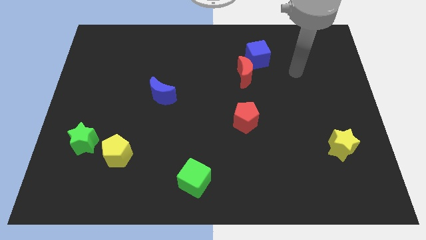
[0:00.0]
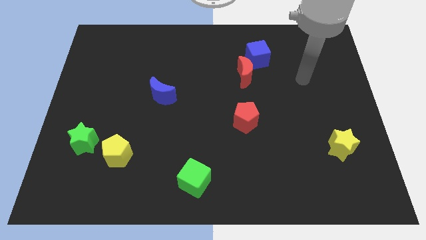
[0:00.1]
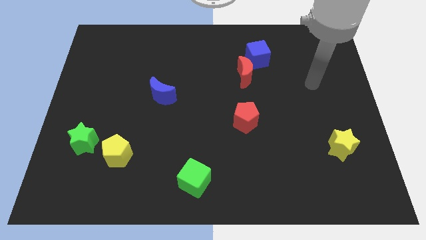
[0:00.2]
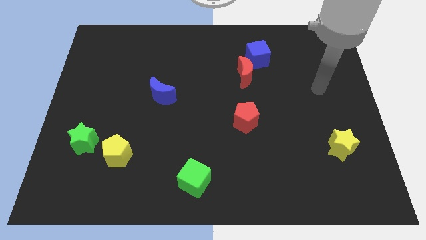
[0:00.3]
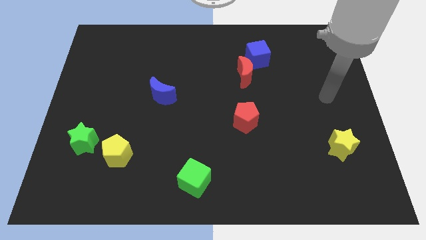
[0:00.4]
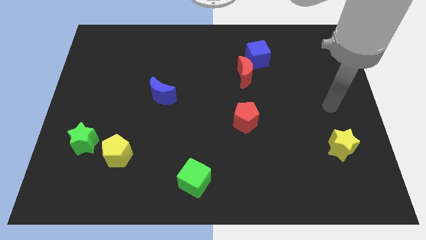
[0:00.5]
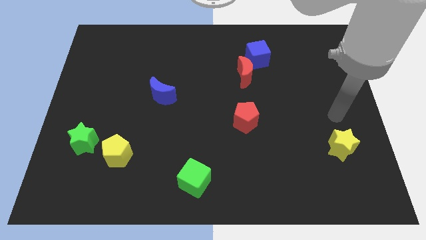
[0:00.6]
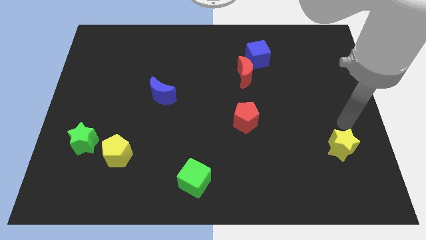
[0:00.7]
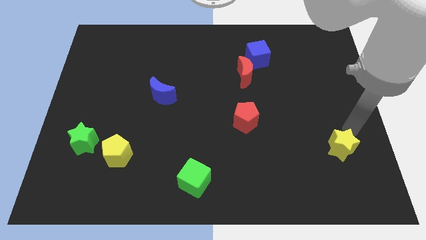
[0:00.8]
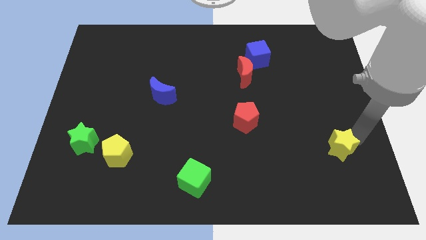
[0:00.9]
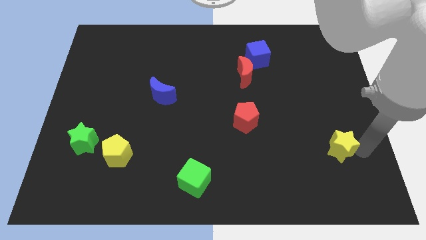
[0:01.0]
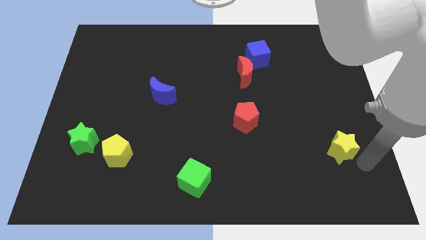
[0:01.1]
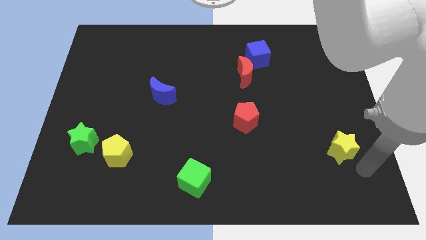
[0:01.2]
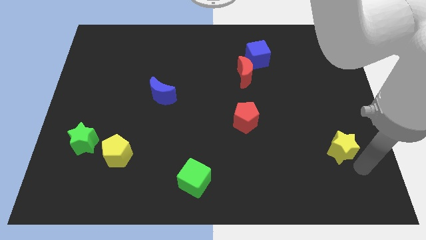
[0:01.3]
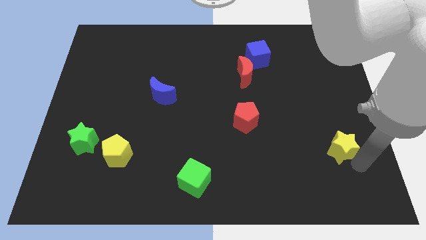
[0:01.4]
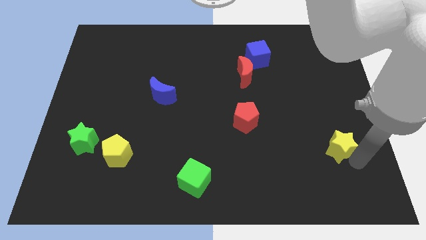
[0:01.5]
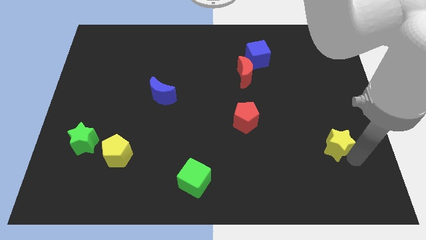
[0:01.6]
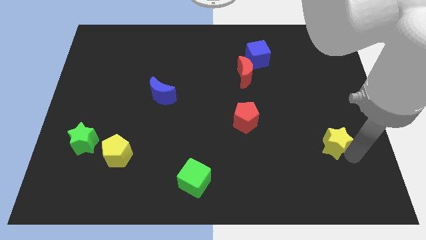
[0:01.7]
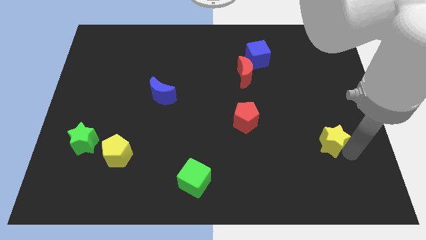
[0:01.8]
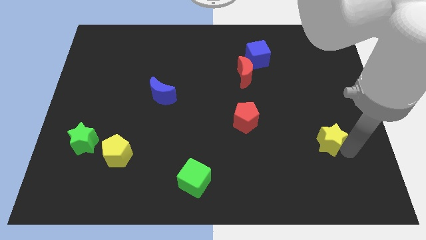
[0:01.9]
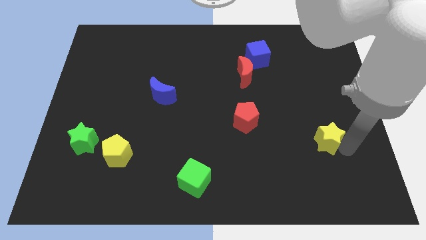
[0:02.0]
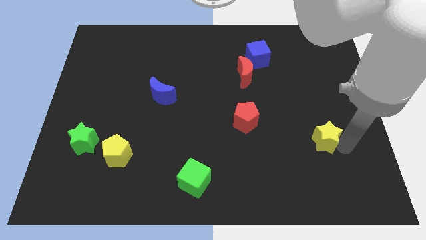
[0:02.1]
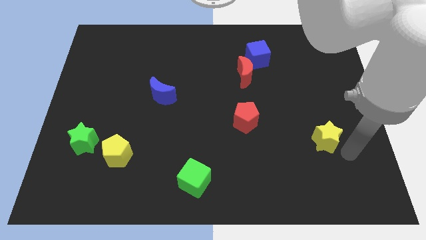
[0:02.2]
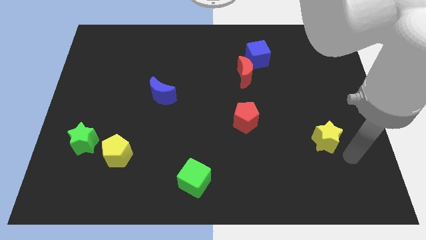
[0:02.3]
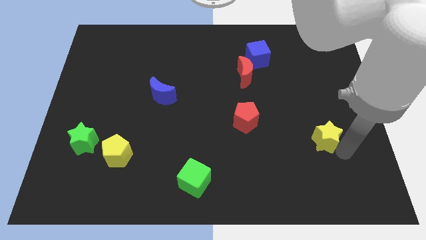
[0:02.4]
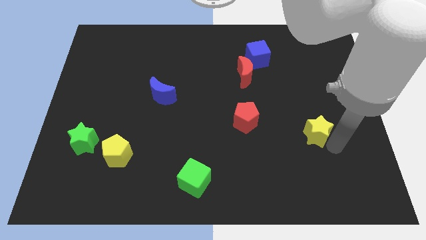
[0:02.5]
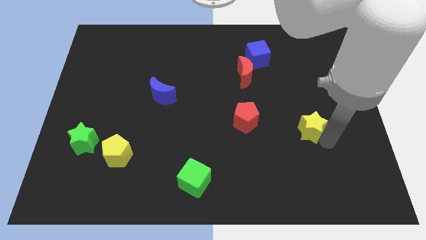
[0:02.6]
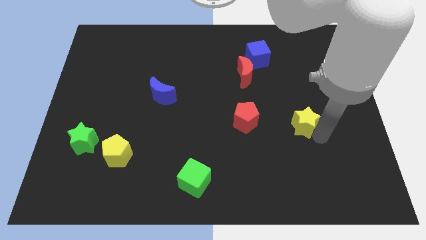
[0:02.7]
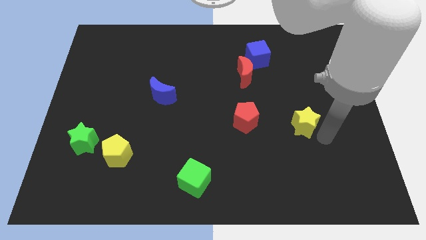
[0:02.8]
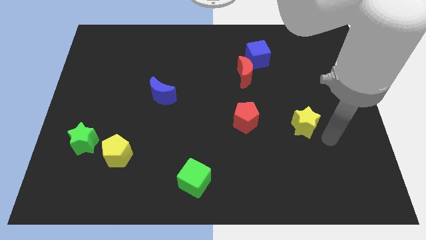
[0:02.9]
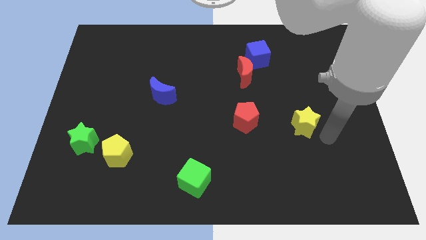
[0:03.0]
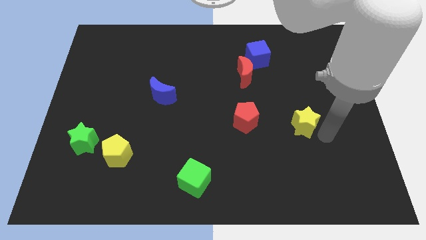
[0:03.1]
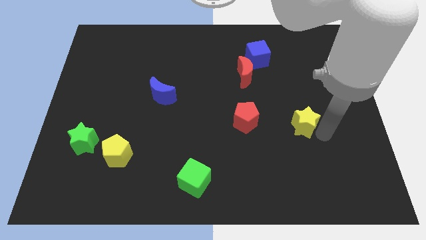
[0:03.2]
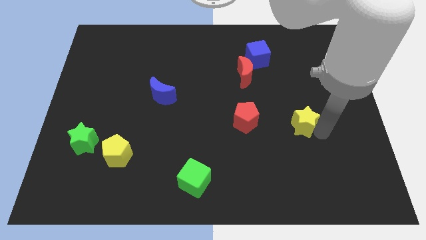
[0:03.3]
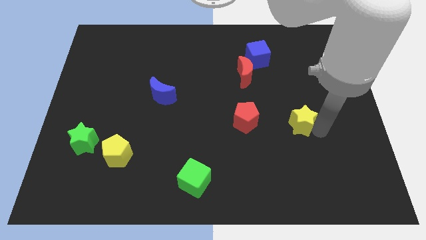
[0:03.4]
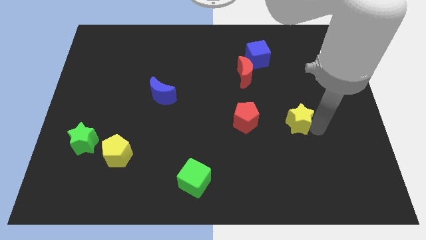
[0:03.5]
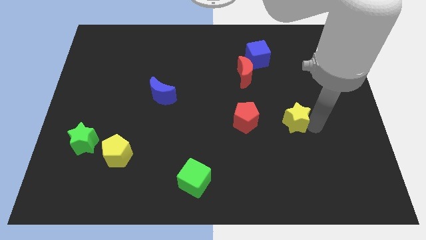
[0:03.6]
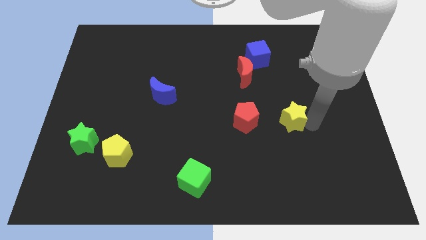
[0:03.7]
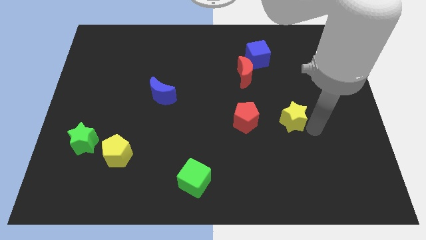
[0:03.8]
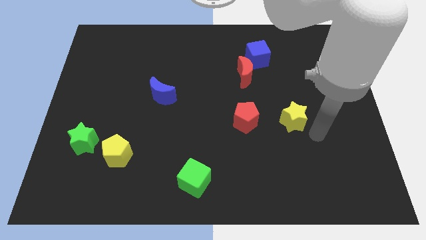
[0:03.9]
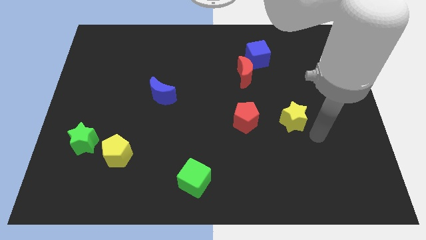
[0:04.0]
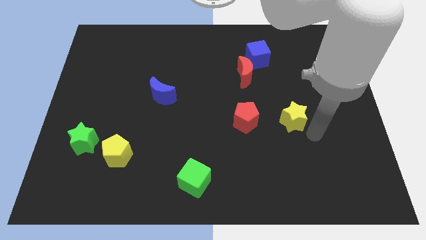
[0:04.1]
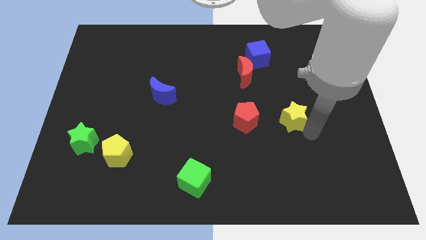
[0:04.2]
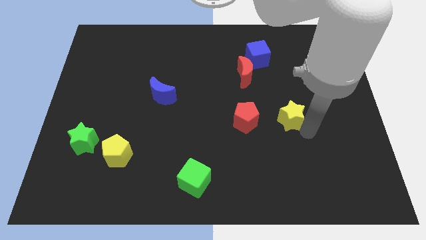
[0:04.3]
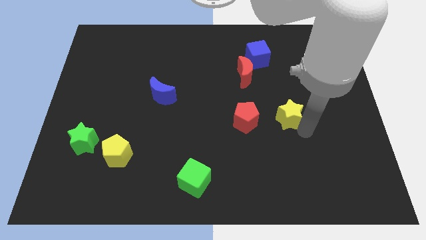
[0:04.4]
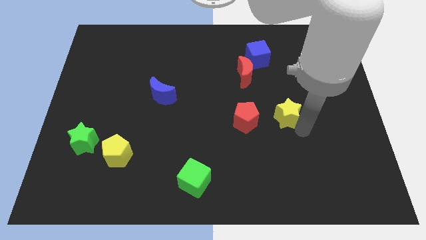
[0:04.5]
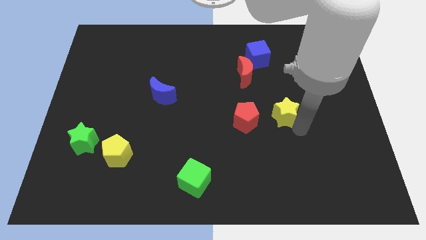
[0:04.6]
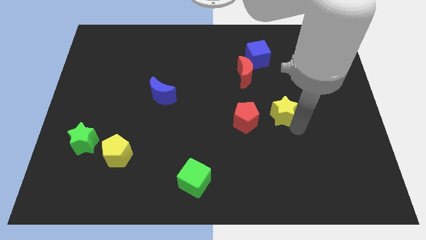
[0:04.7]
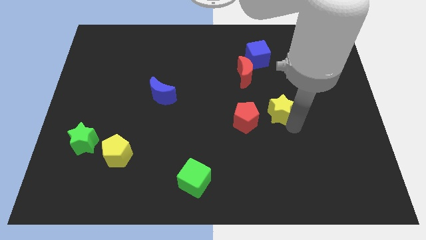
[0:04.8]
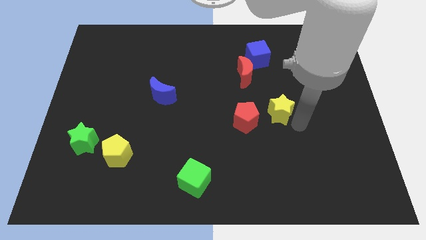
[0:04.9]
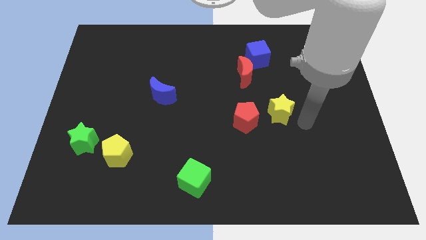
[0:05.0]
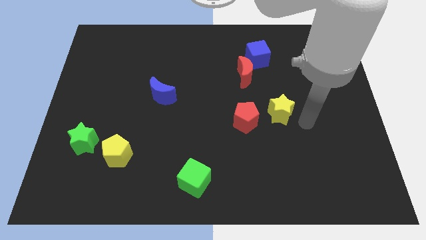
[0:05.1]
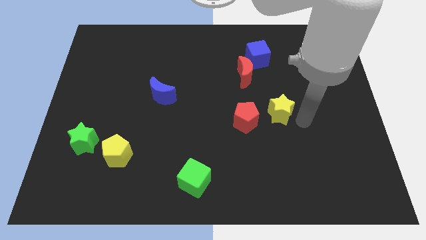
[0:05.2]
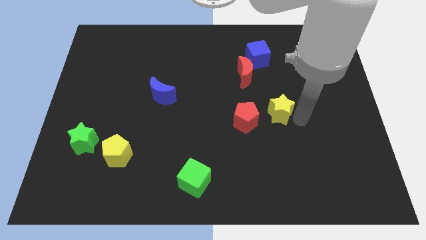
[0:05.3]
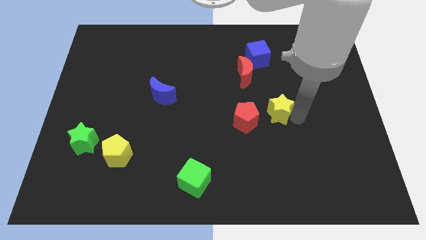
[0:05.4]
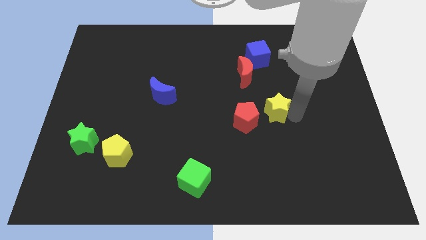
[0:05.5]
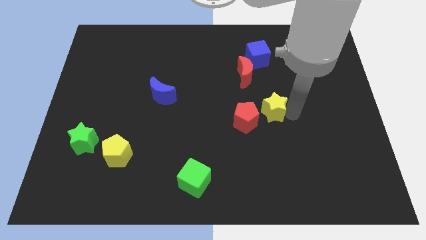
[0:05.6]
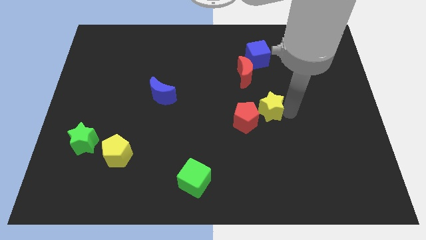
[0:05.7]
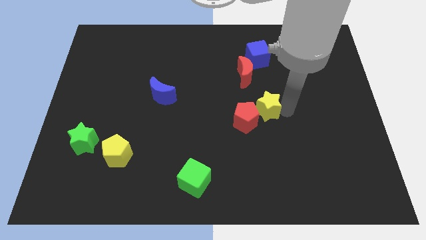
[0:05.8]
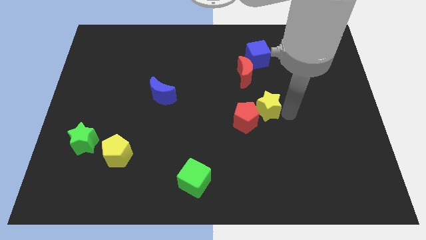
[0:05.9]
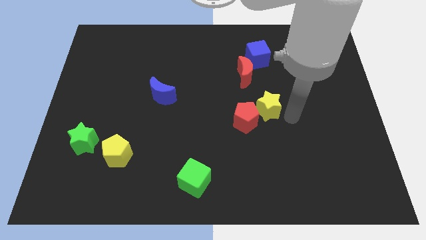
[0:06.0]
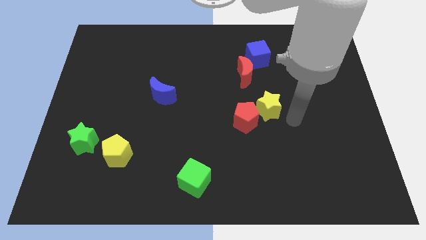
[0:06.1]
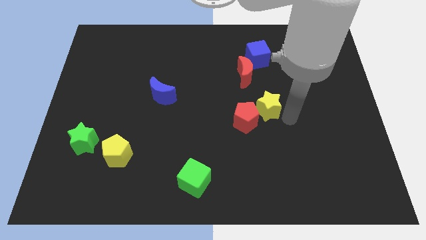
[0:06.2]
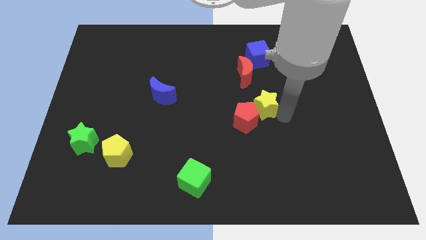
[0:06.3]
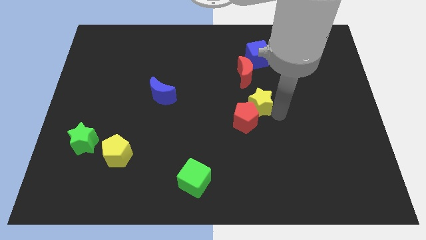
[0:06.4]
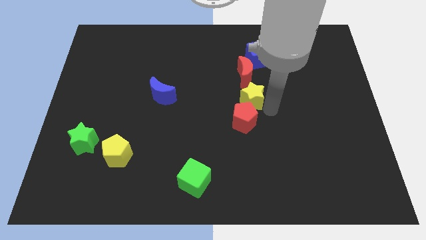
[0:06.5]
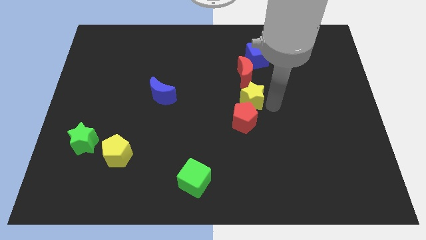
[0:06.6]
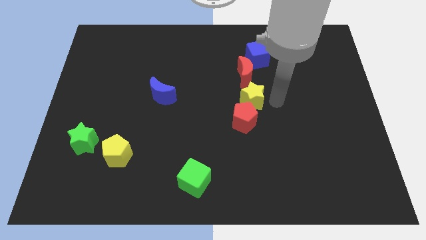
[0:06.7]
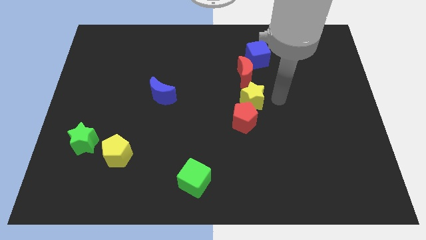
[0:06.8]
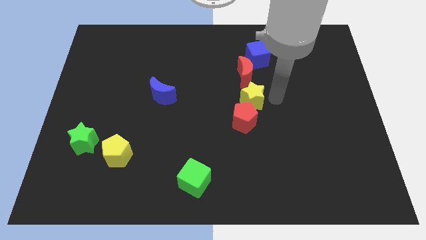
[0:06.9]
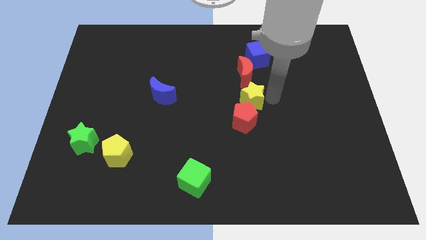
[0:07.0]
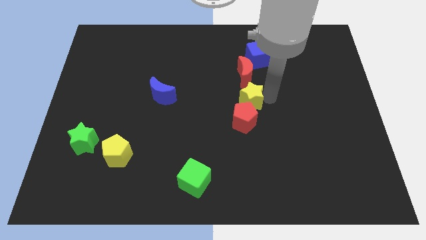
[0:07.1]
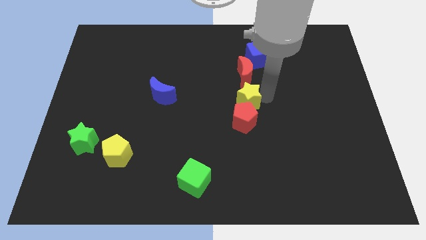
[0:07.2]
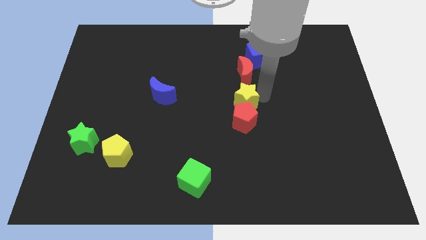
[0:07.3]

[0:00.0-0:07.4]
slide the yellow star to the top left of the red pentagon

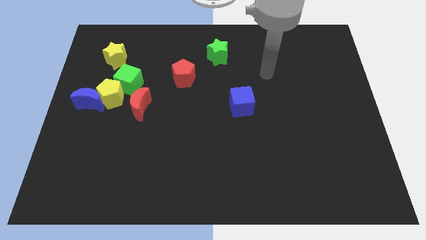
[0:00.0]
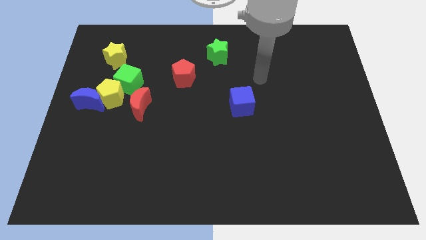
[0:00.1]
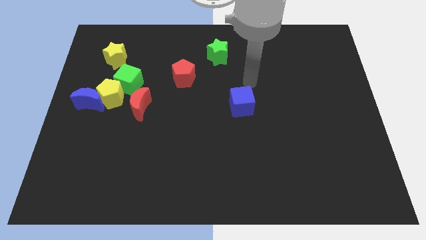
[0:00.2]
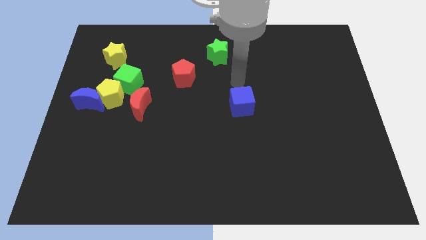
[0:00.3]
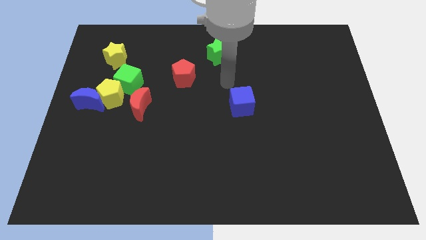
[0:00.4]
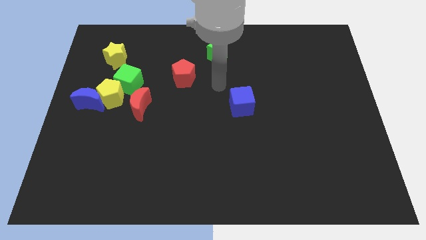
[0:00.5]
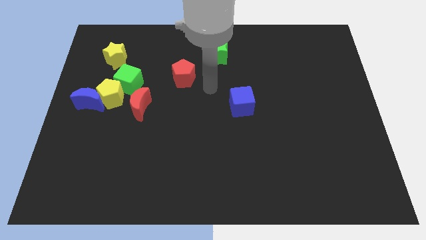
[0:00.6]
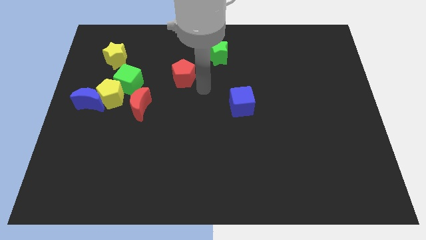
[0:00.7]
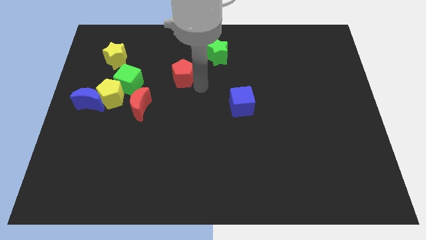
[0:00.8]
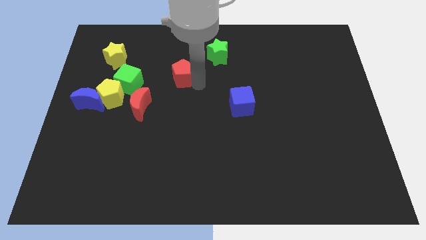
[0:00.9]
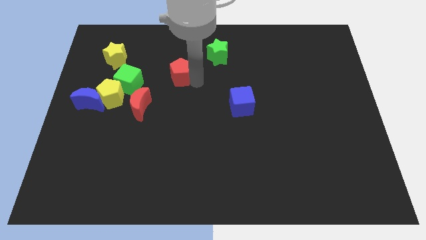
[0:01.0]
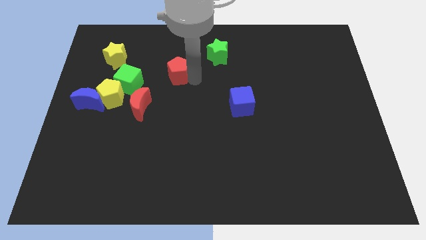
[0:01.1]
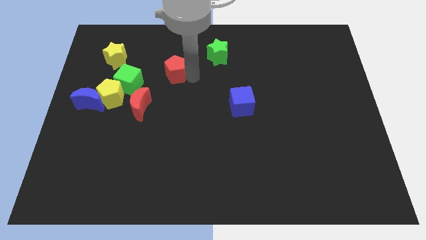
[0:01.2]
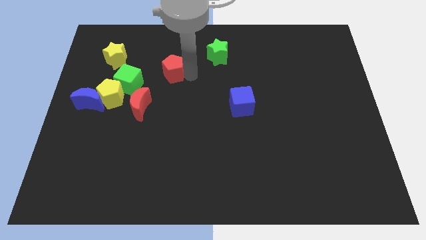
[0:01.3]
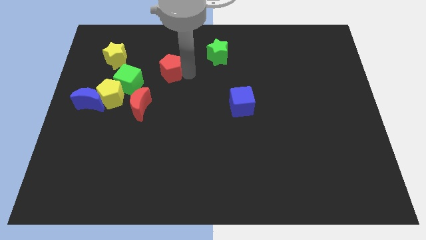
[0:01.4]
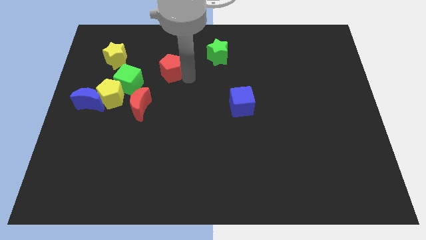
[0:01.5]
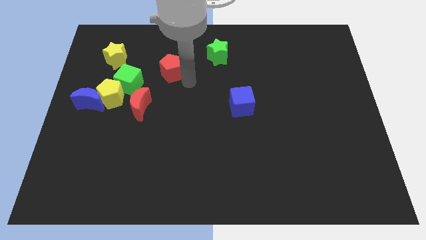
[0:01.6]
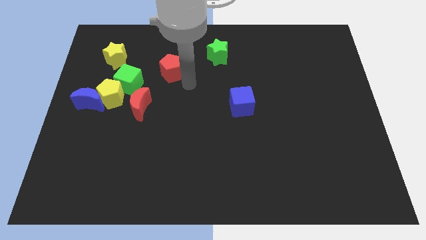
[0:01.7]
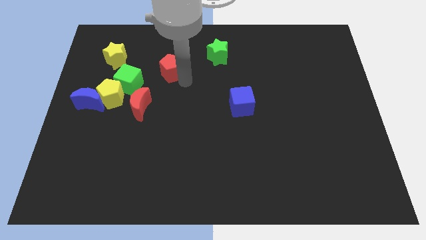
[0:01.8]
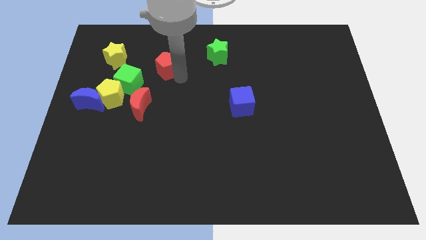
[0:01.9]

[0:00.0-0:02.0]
move the red pentagon to the right side of the yellow star
